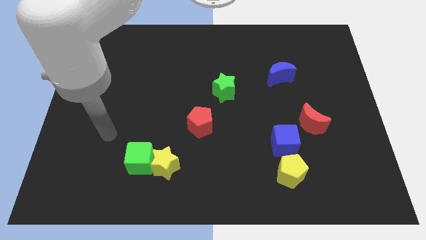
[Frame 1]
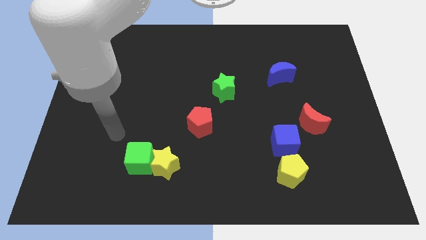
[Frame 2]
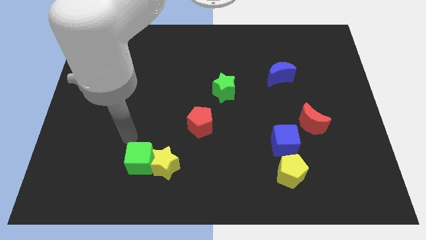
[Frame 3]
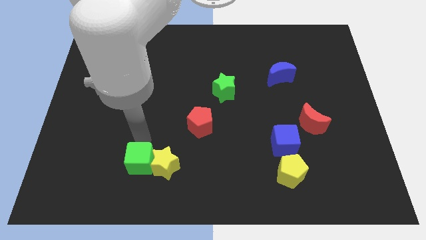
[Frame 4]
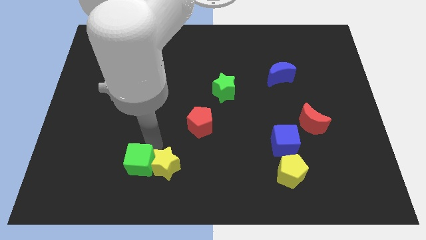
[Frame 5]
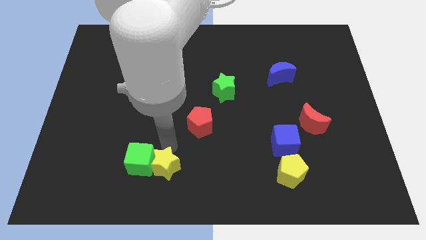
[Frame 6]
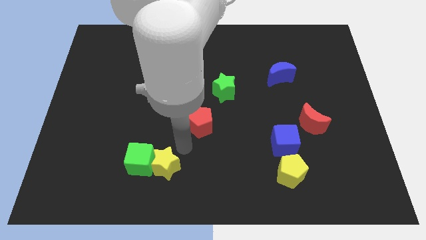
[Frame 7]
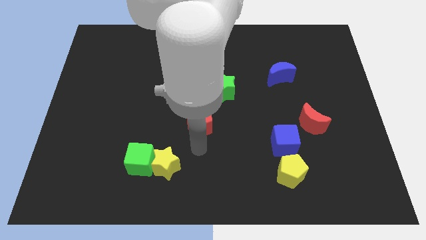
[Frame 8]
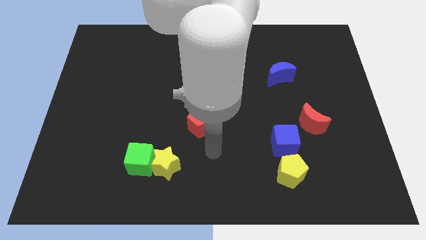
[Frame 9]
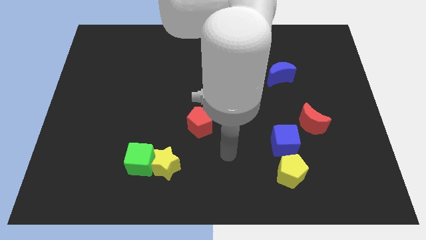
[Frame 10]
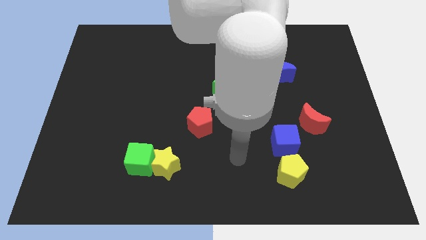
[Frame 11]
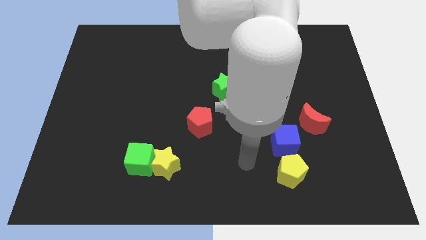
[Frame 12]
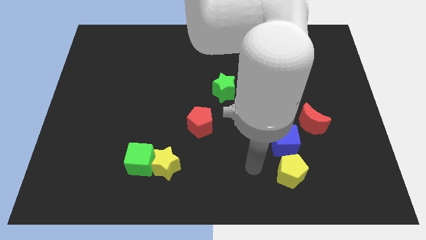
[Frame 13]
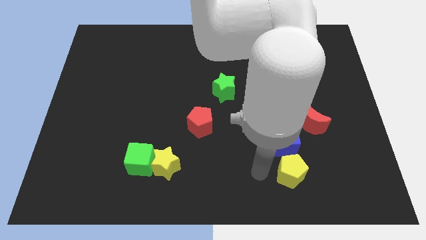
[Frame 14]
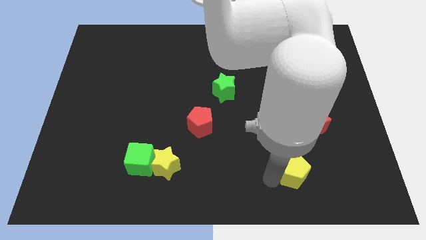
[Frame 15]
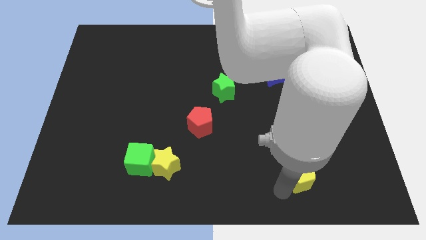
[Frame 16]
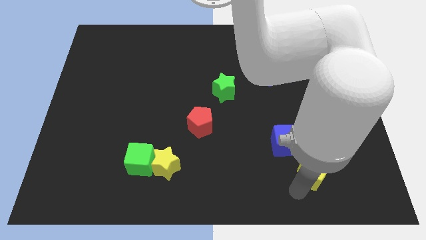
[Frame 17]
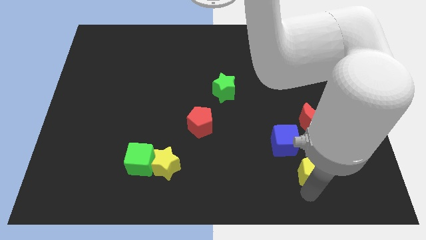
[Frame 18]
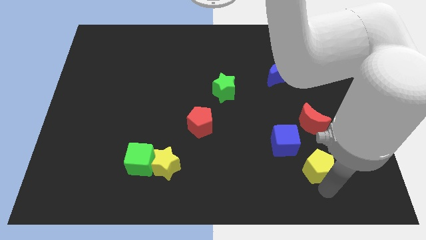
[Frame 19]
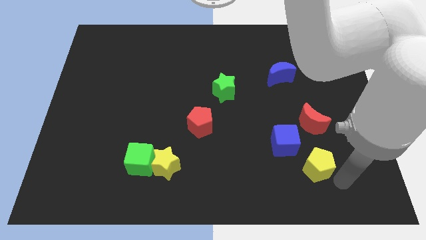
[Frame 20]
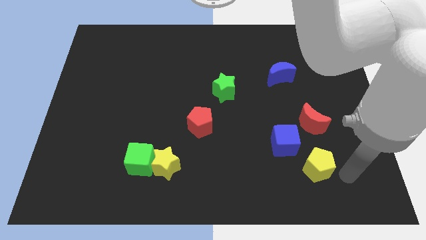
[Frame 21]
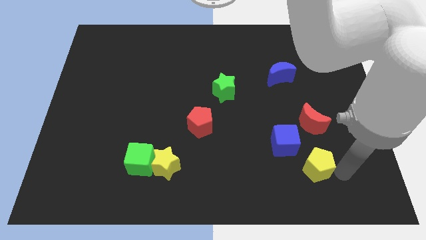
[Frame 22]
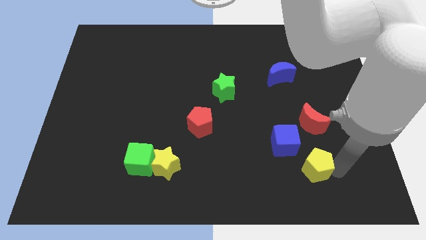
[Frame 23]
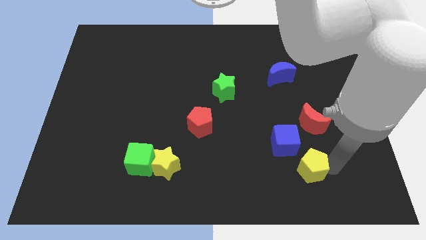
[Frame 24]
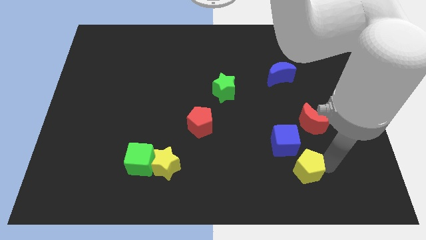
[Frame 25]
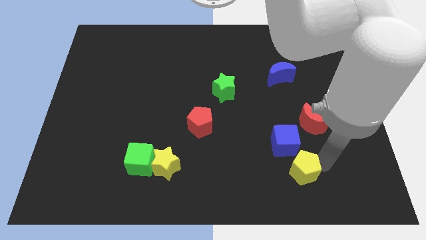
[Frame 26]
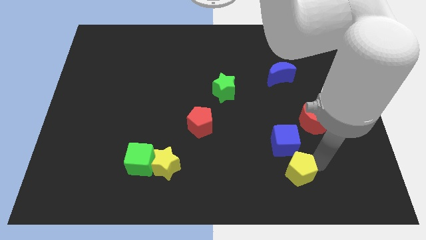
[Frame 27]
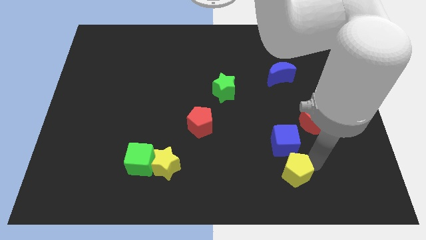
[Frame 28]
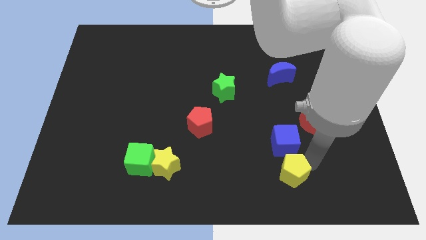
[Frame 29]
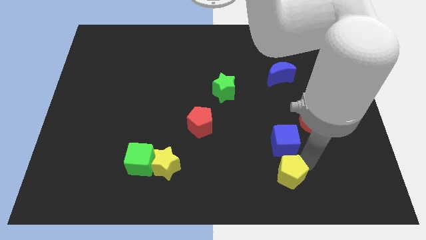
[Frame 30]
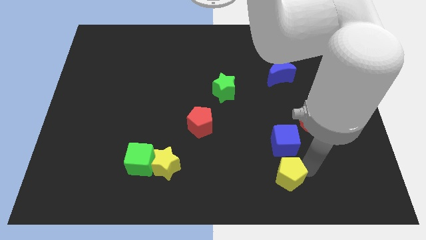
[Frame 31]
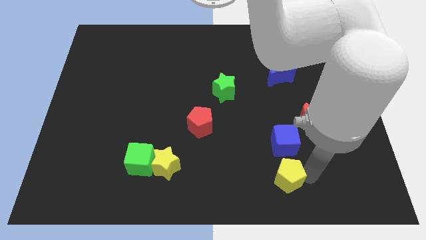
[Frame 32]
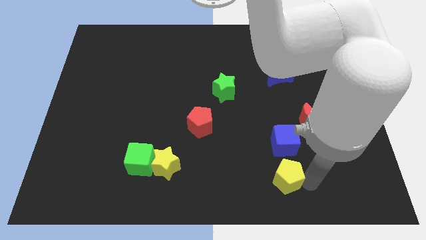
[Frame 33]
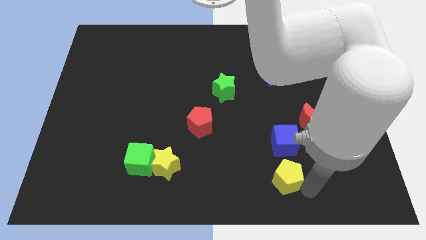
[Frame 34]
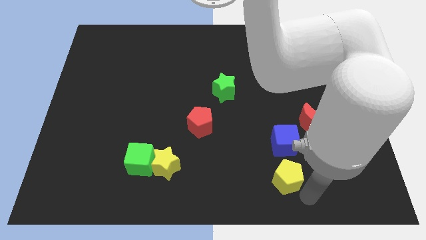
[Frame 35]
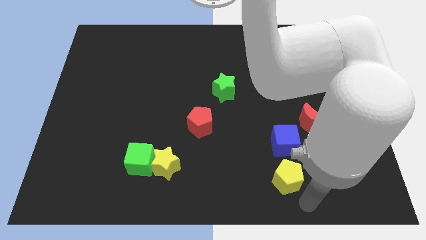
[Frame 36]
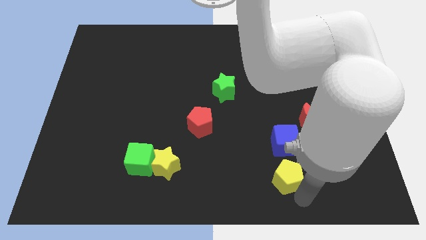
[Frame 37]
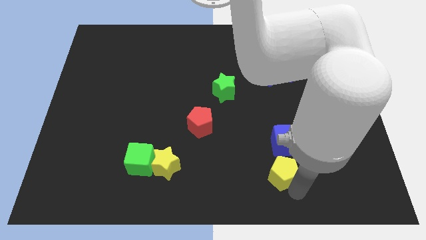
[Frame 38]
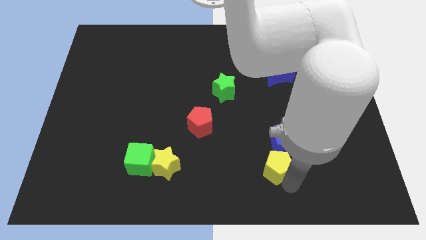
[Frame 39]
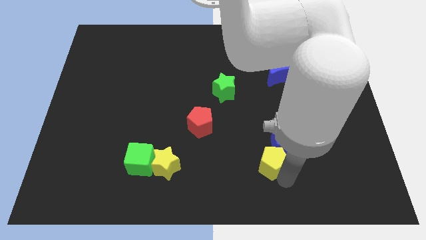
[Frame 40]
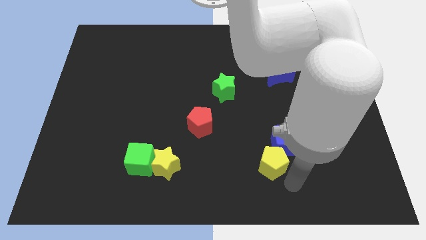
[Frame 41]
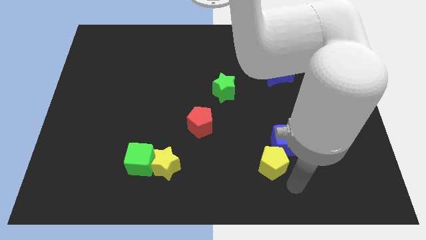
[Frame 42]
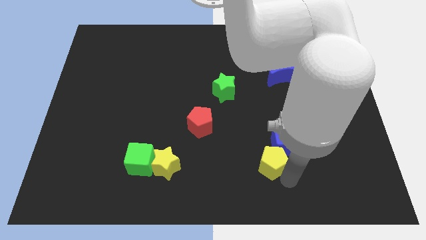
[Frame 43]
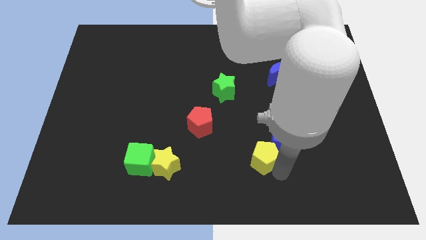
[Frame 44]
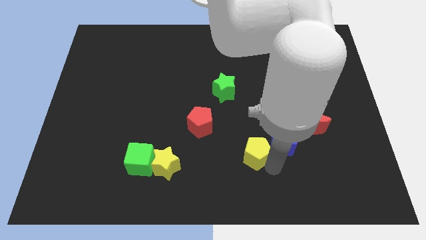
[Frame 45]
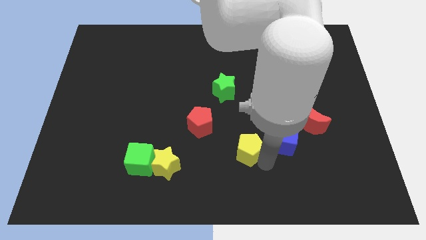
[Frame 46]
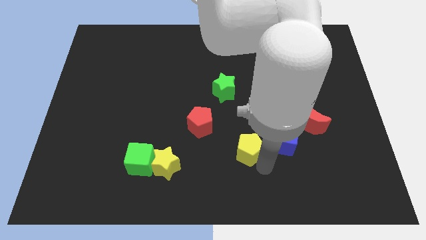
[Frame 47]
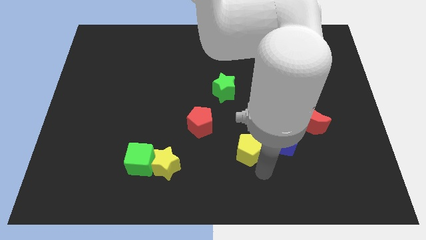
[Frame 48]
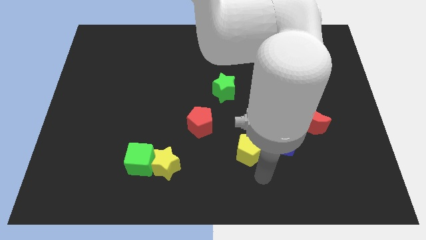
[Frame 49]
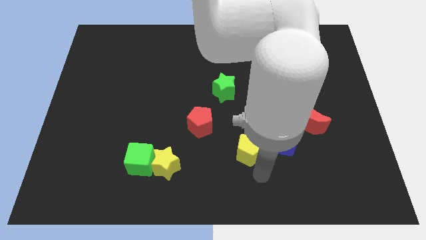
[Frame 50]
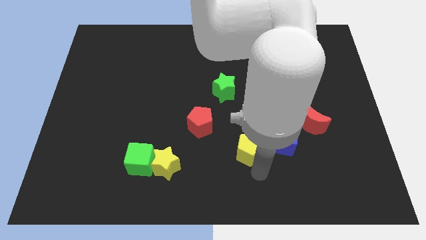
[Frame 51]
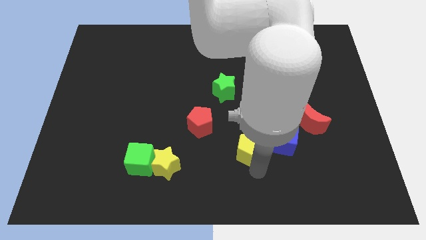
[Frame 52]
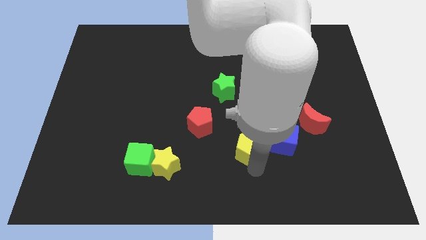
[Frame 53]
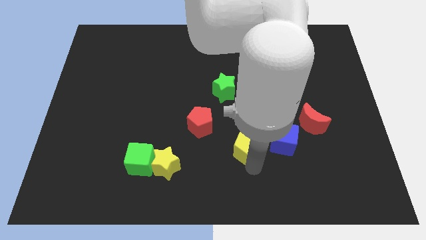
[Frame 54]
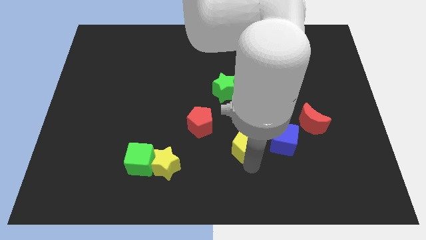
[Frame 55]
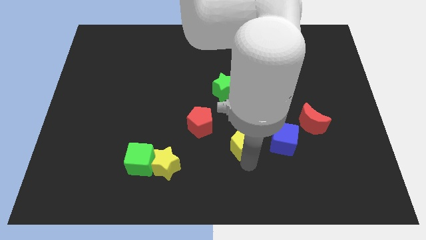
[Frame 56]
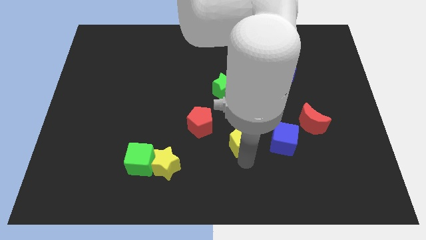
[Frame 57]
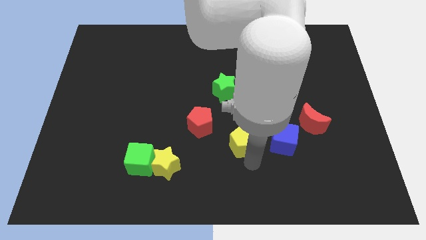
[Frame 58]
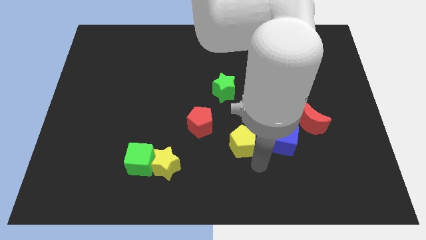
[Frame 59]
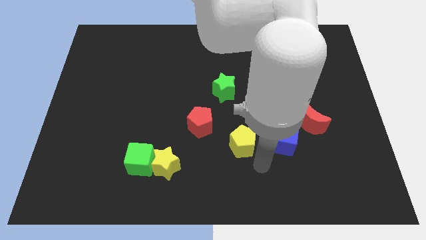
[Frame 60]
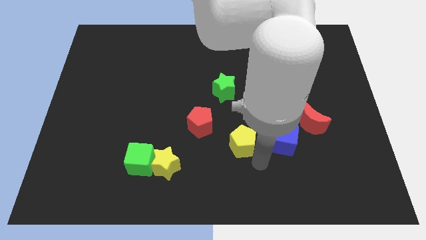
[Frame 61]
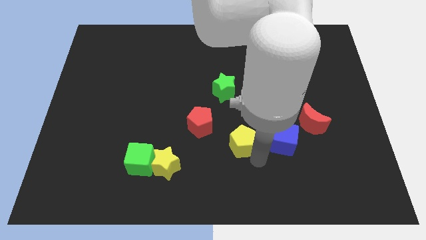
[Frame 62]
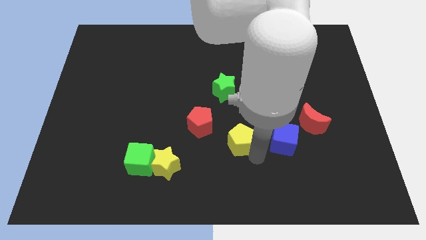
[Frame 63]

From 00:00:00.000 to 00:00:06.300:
put the yellow pentagon below the green star
